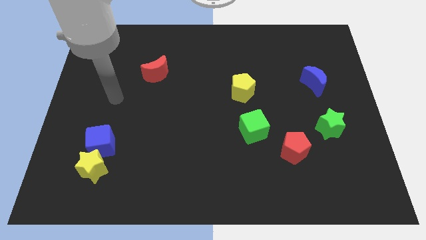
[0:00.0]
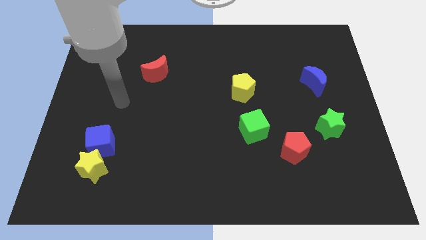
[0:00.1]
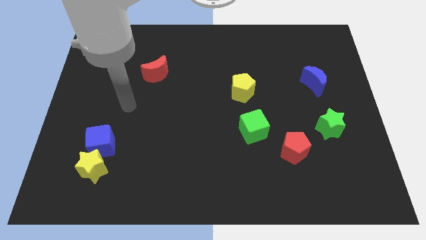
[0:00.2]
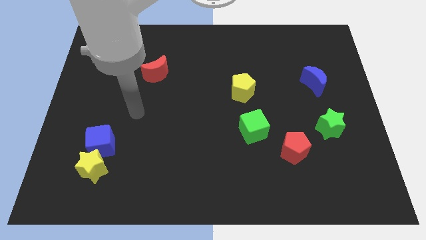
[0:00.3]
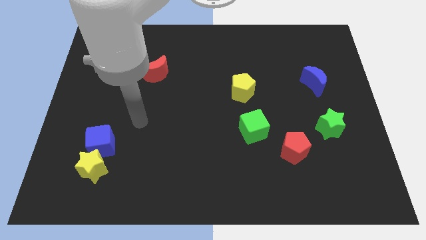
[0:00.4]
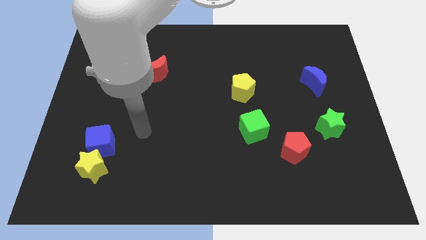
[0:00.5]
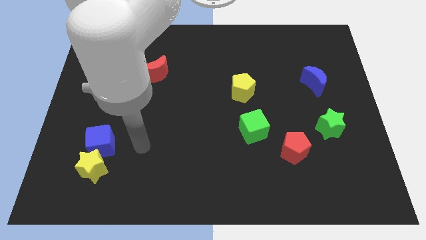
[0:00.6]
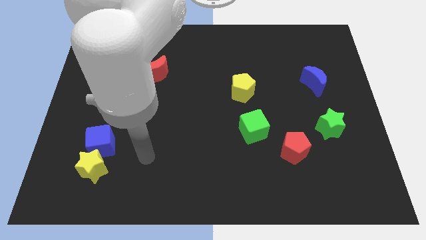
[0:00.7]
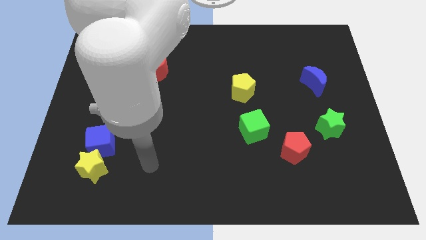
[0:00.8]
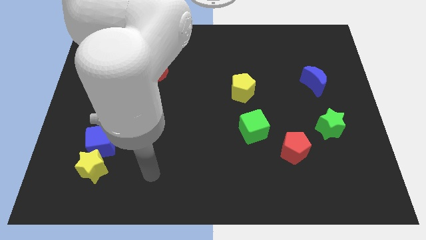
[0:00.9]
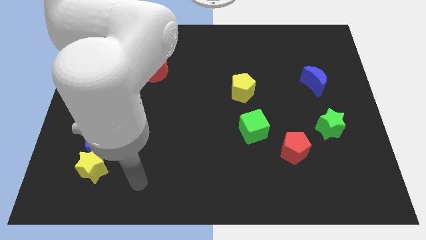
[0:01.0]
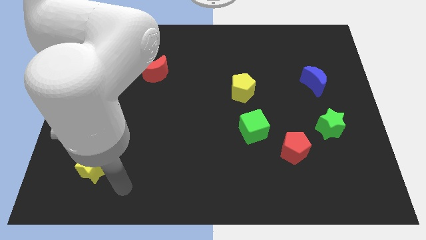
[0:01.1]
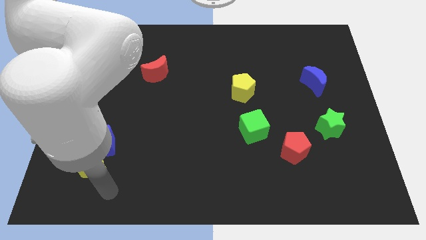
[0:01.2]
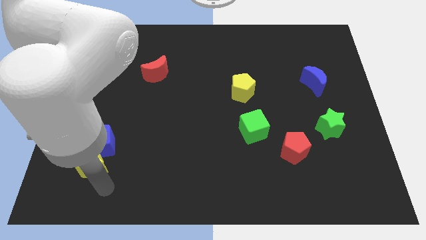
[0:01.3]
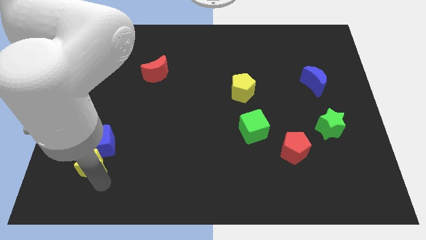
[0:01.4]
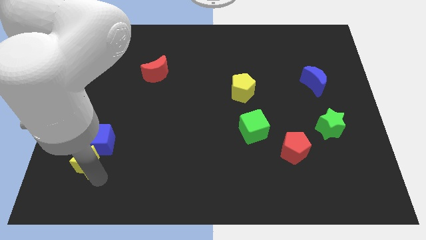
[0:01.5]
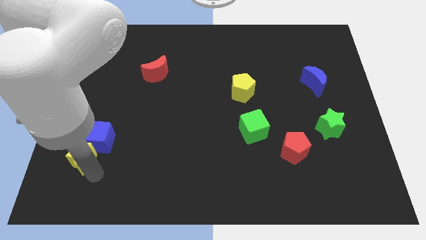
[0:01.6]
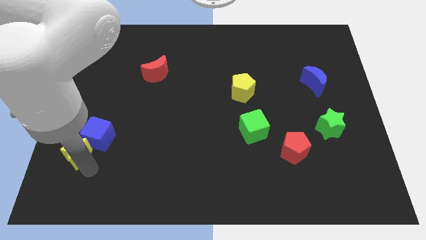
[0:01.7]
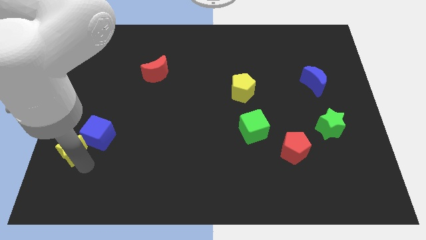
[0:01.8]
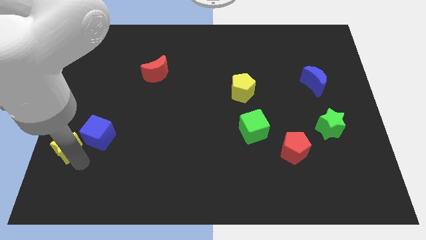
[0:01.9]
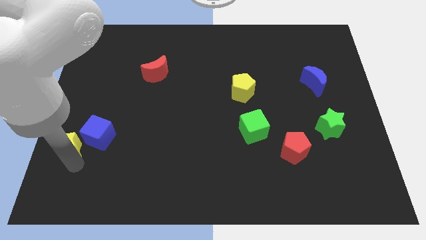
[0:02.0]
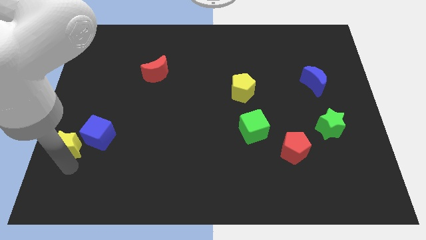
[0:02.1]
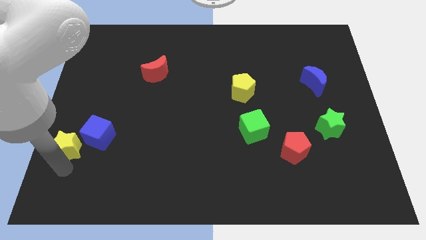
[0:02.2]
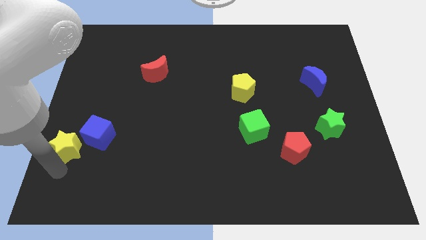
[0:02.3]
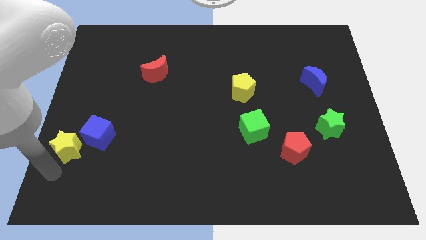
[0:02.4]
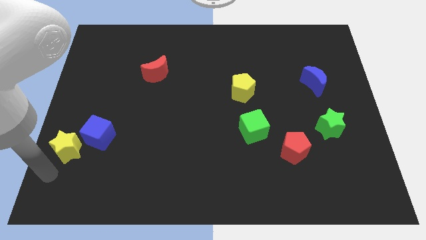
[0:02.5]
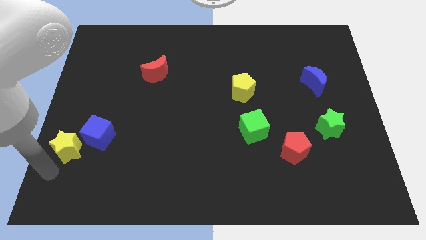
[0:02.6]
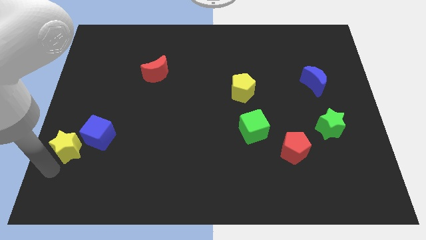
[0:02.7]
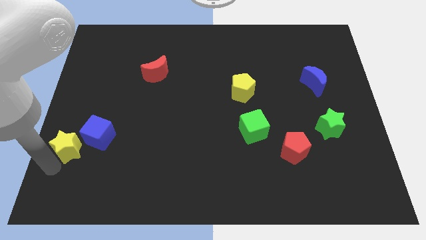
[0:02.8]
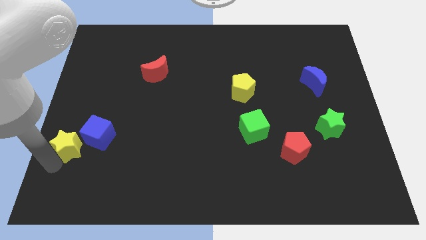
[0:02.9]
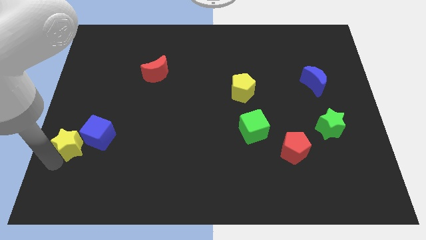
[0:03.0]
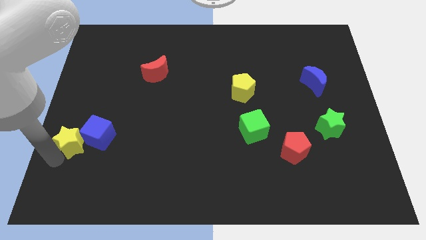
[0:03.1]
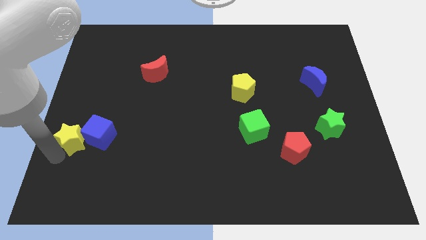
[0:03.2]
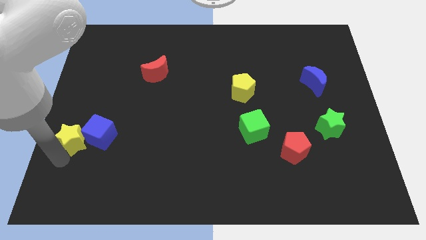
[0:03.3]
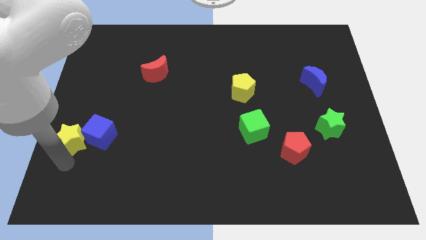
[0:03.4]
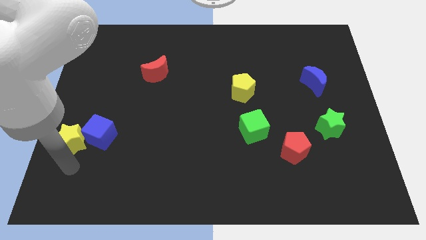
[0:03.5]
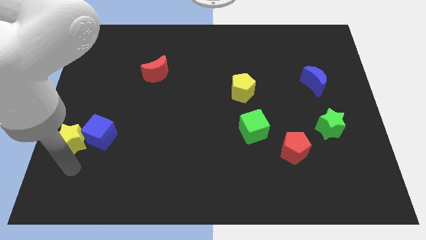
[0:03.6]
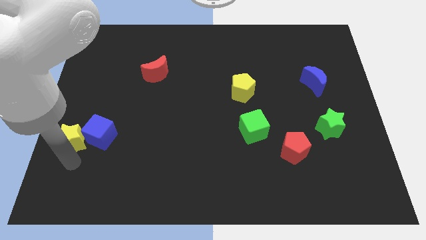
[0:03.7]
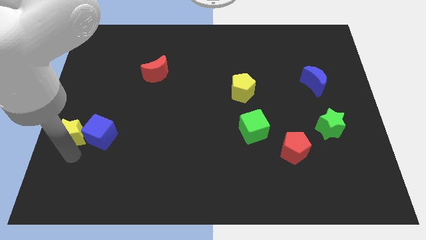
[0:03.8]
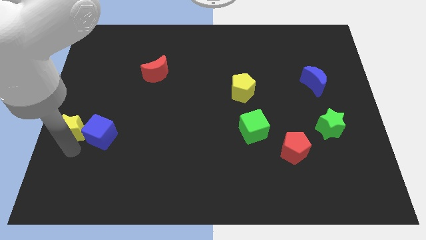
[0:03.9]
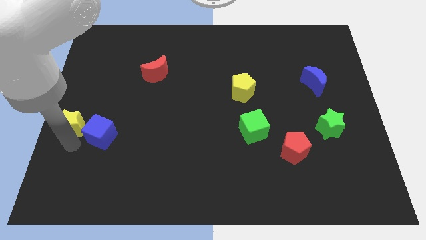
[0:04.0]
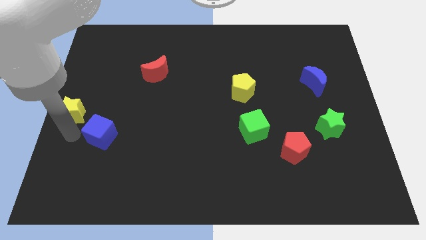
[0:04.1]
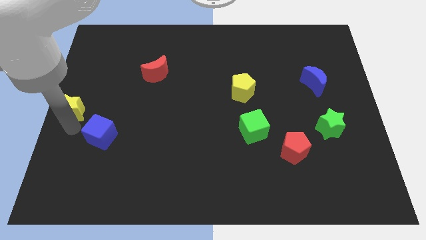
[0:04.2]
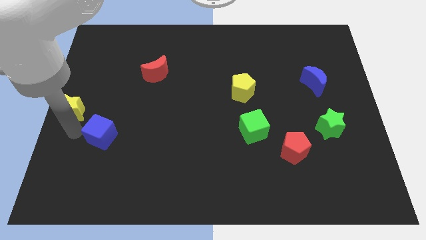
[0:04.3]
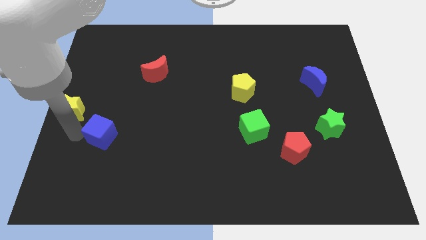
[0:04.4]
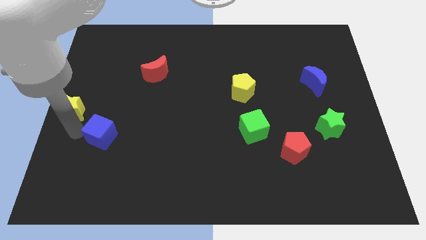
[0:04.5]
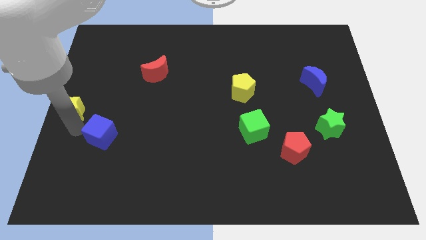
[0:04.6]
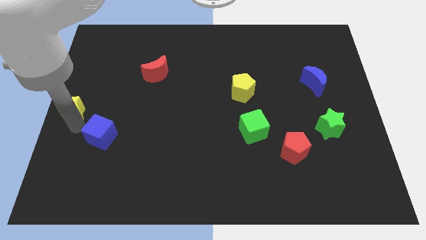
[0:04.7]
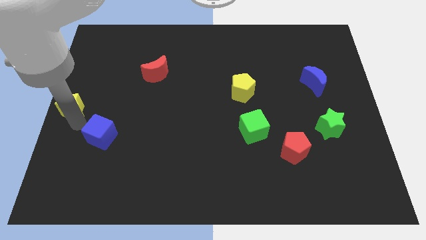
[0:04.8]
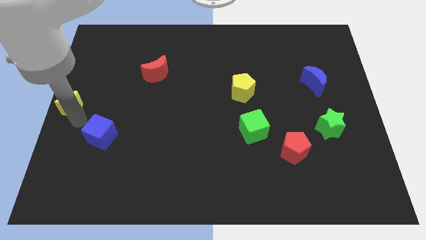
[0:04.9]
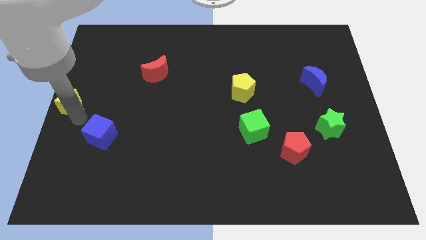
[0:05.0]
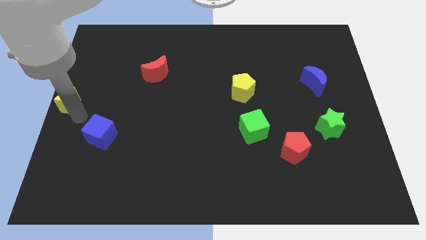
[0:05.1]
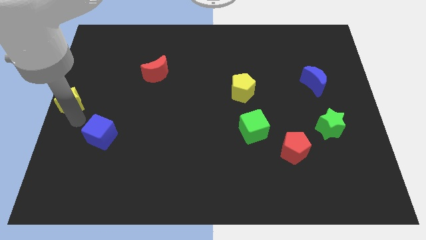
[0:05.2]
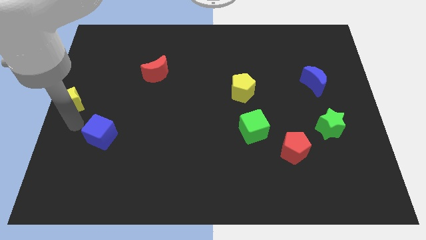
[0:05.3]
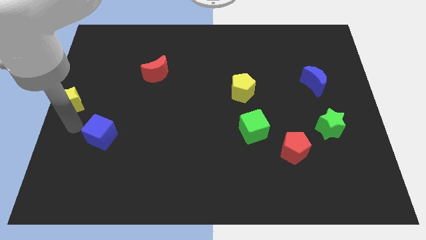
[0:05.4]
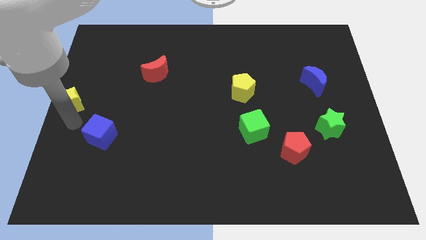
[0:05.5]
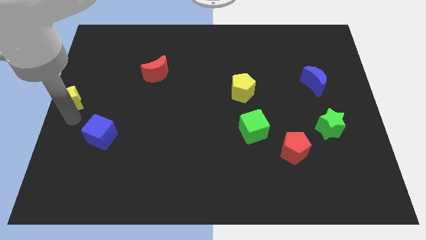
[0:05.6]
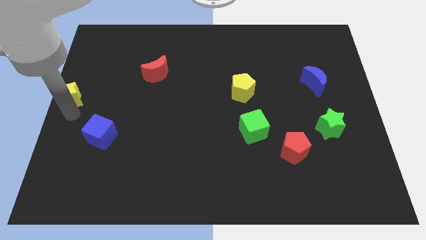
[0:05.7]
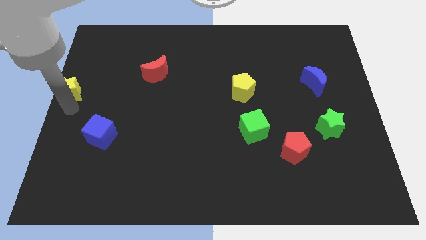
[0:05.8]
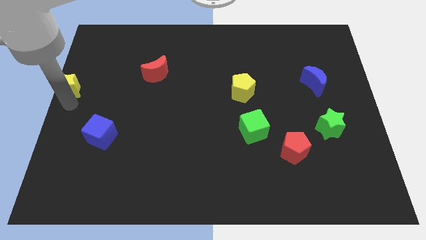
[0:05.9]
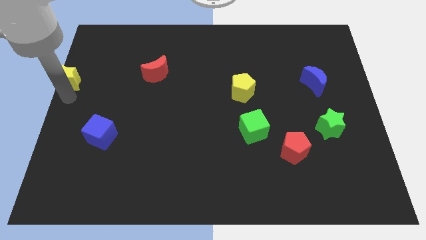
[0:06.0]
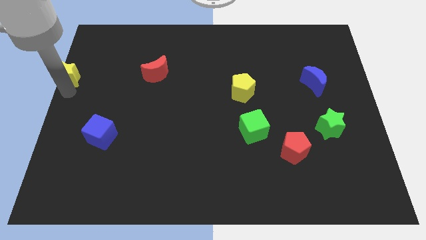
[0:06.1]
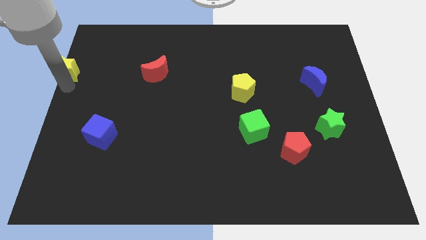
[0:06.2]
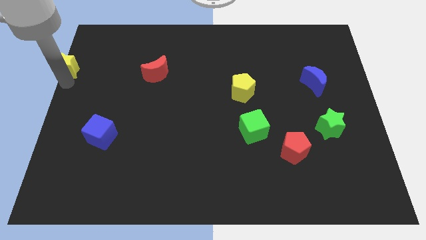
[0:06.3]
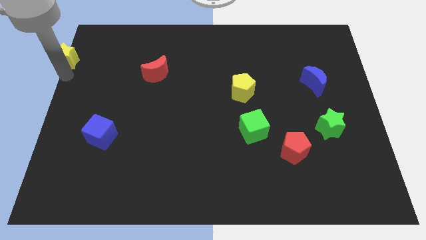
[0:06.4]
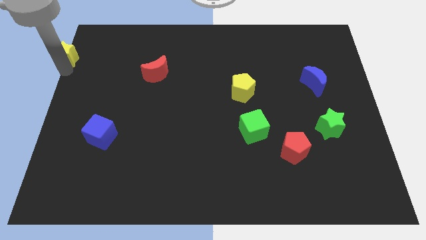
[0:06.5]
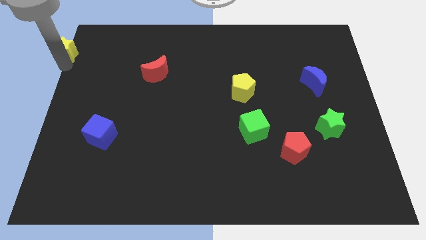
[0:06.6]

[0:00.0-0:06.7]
put the yellow star to the top left of the board
